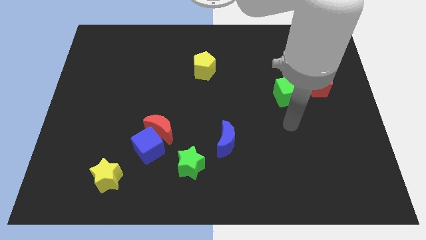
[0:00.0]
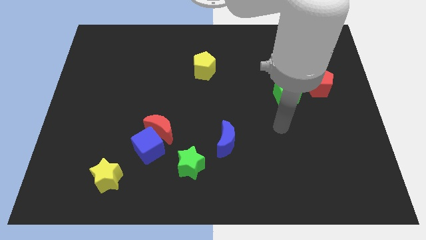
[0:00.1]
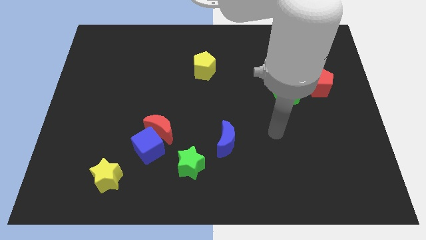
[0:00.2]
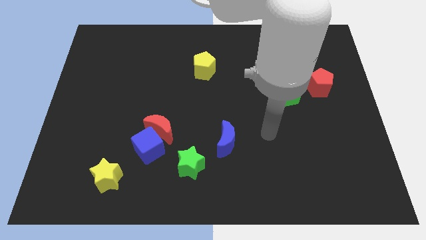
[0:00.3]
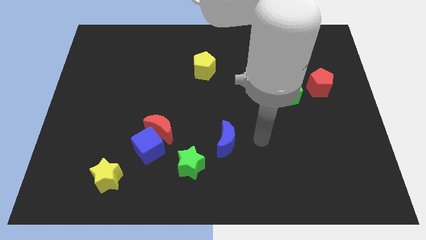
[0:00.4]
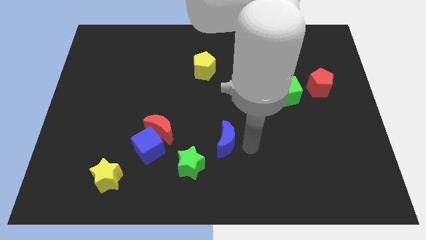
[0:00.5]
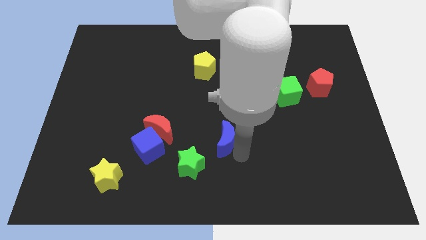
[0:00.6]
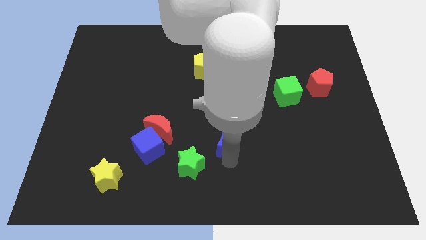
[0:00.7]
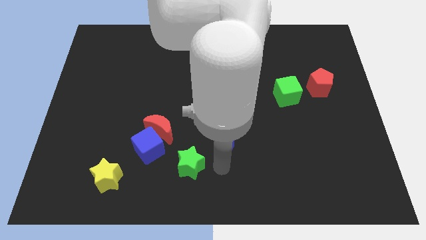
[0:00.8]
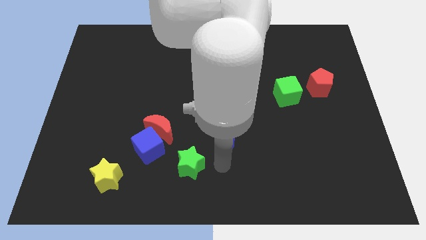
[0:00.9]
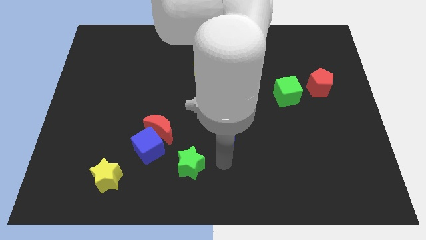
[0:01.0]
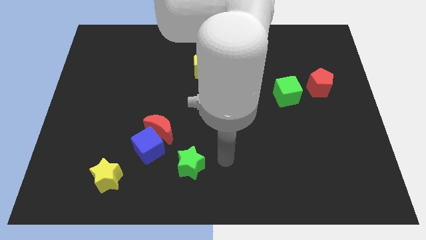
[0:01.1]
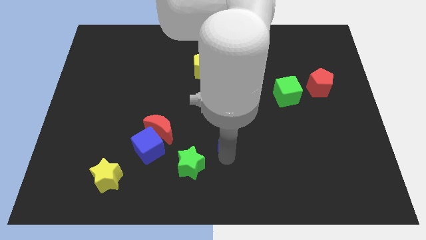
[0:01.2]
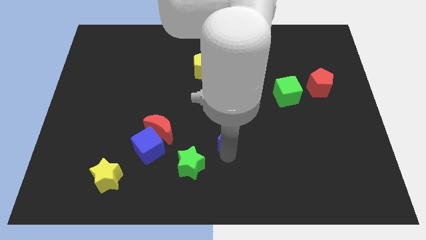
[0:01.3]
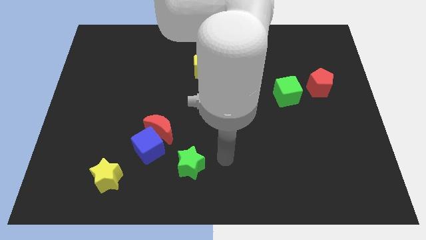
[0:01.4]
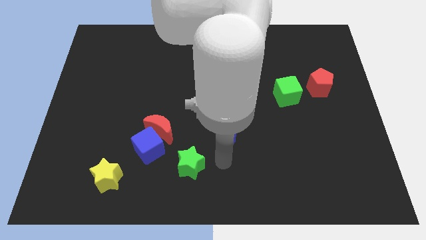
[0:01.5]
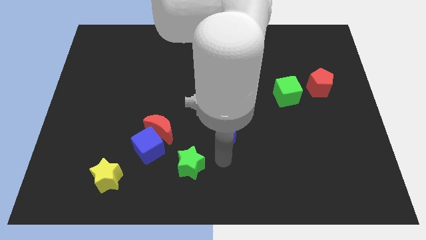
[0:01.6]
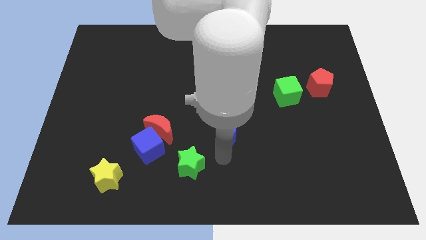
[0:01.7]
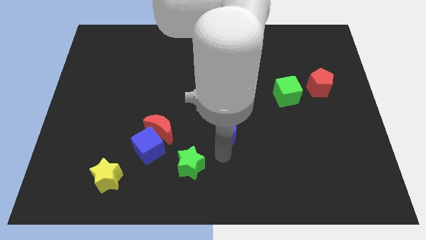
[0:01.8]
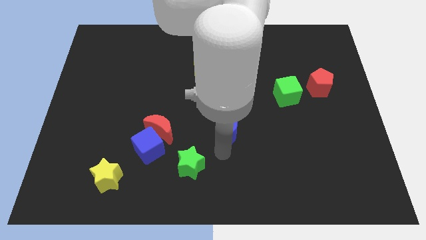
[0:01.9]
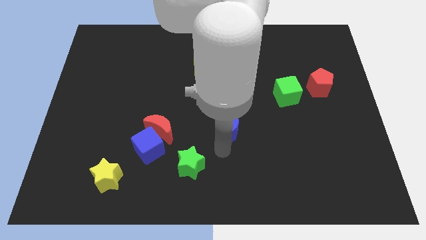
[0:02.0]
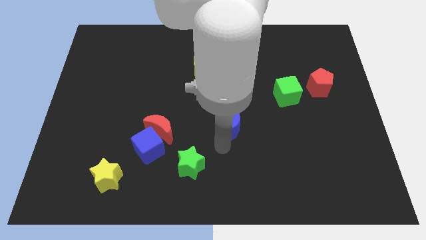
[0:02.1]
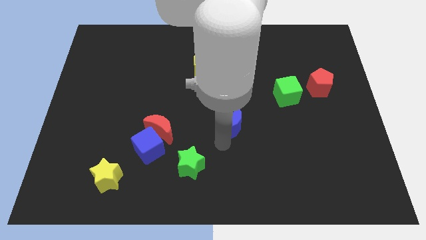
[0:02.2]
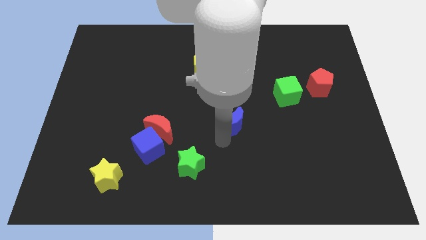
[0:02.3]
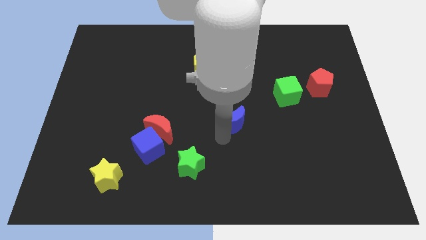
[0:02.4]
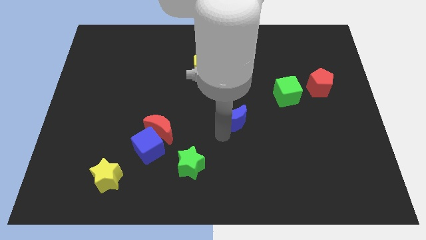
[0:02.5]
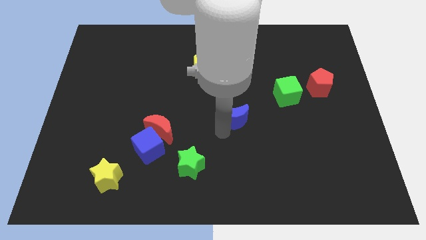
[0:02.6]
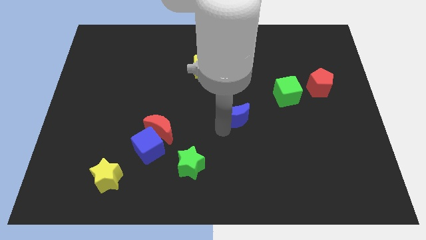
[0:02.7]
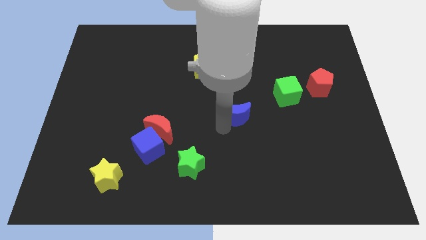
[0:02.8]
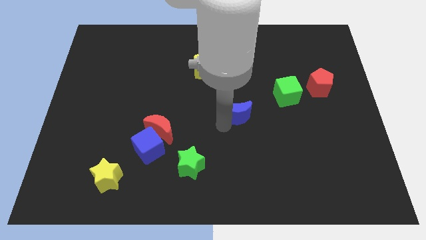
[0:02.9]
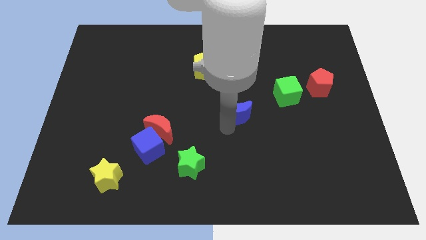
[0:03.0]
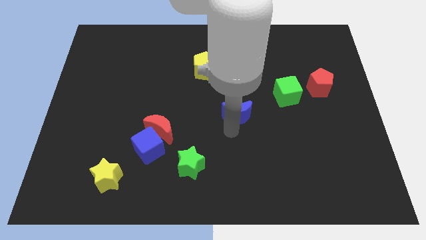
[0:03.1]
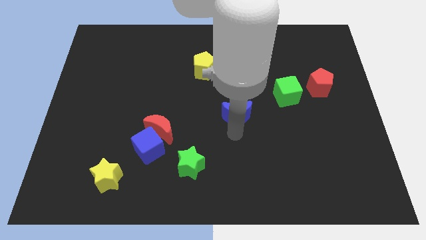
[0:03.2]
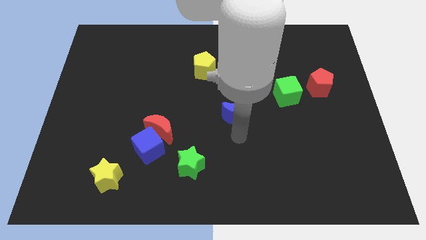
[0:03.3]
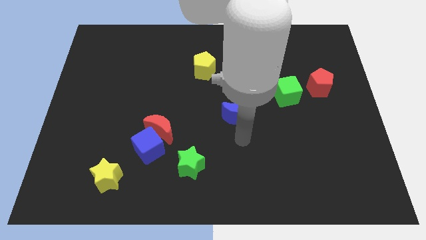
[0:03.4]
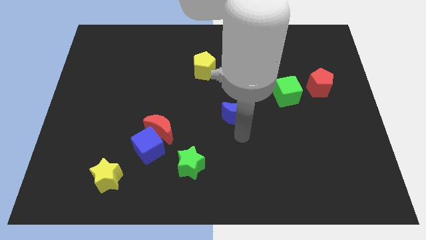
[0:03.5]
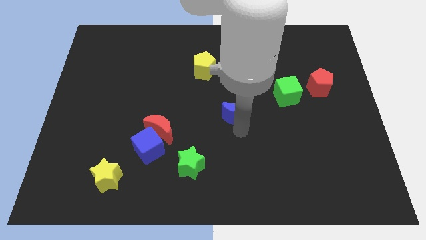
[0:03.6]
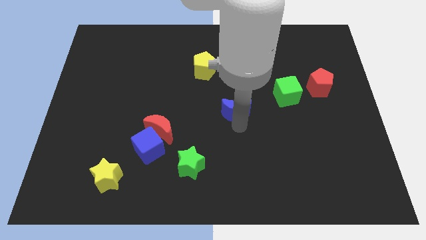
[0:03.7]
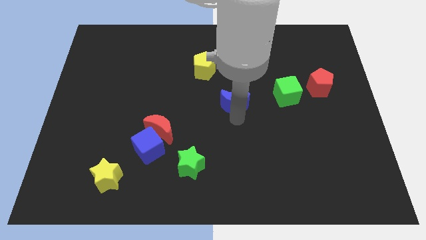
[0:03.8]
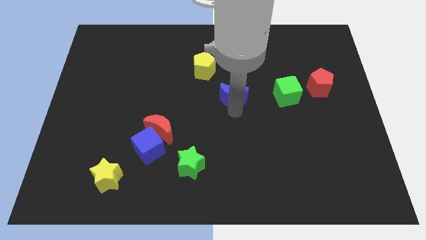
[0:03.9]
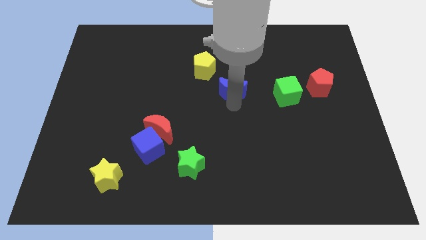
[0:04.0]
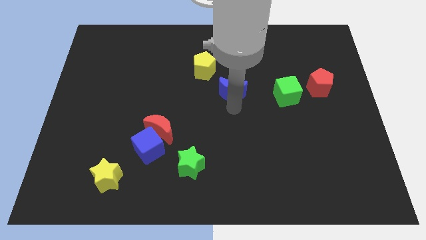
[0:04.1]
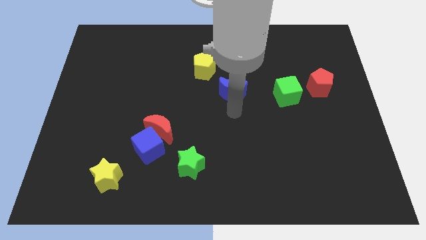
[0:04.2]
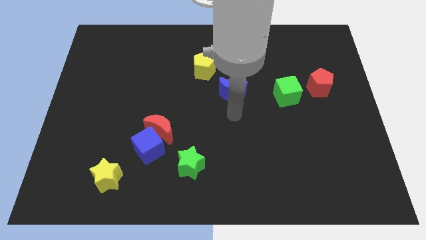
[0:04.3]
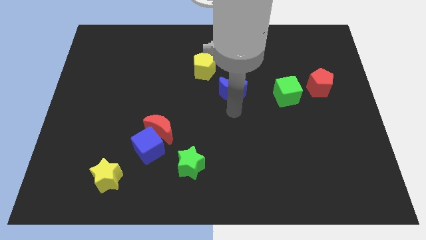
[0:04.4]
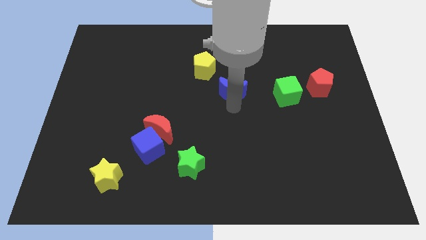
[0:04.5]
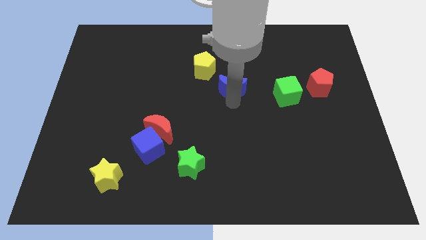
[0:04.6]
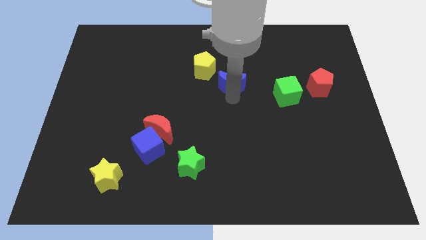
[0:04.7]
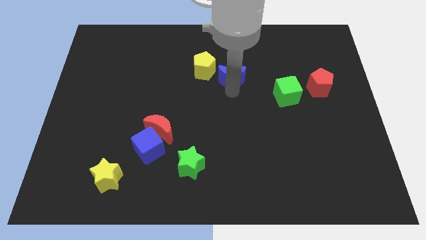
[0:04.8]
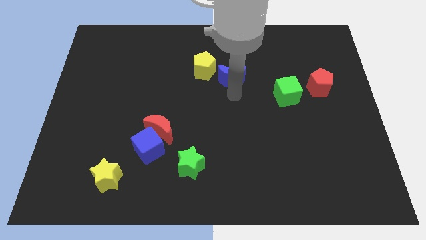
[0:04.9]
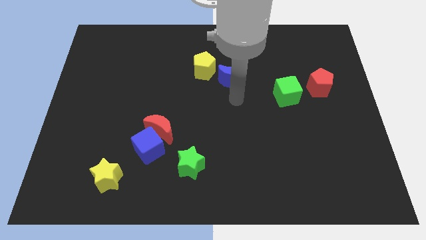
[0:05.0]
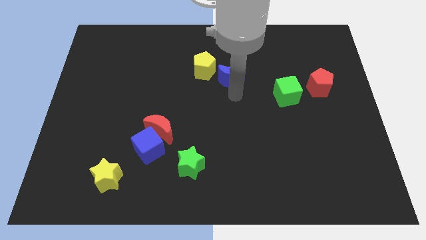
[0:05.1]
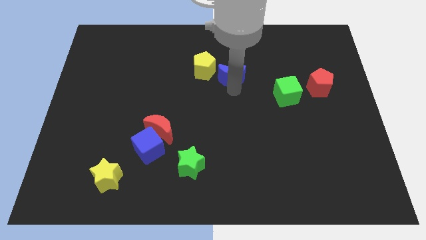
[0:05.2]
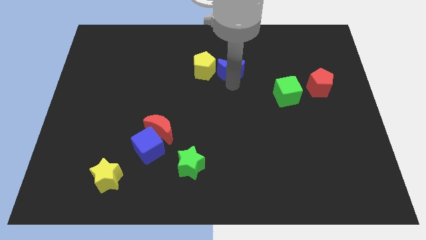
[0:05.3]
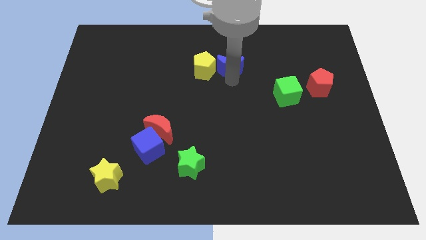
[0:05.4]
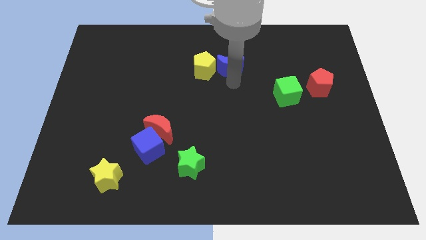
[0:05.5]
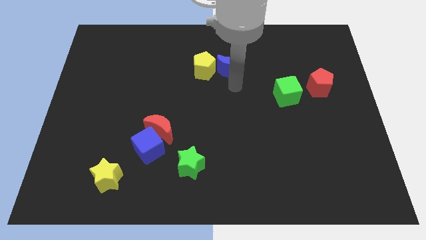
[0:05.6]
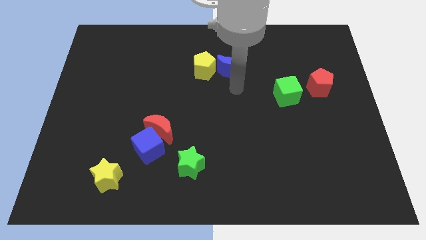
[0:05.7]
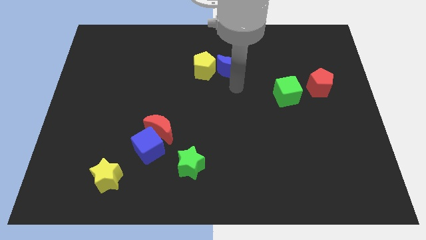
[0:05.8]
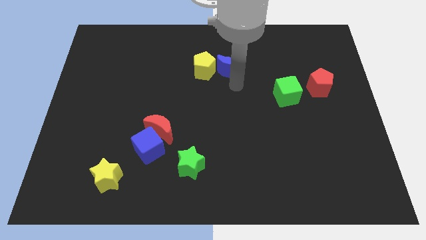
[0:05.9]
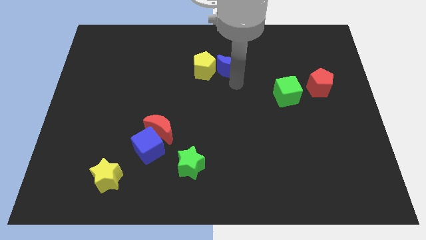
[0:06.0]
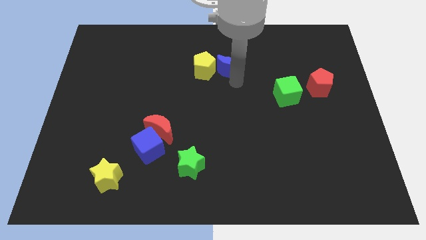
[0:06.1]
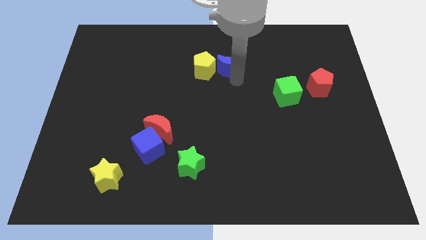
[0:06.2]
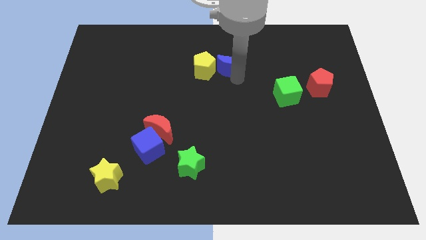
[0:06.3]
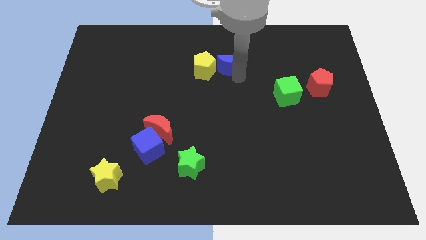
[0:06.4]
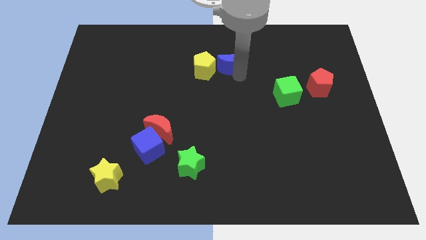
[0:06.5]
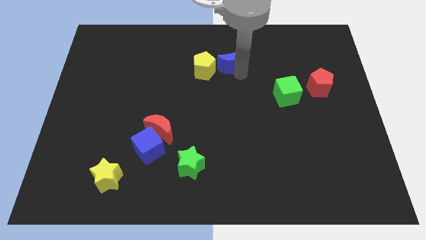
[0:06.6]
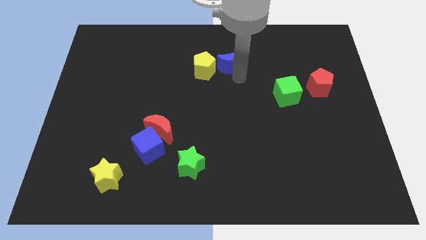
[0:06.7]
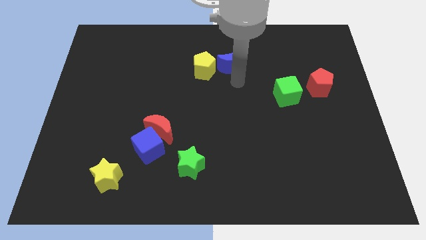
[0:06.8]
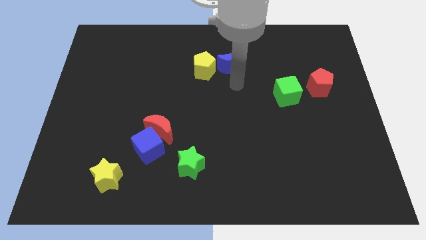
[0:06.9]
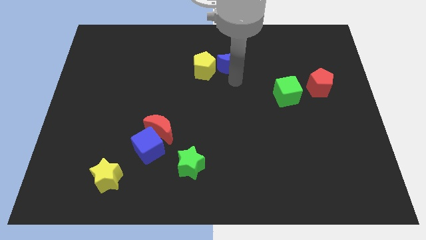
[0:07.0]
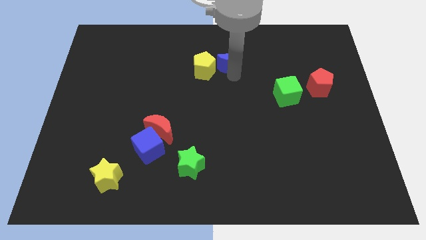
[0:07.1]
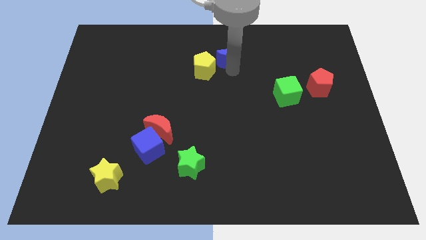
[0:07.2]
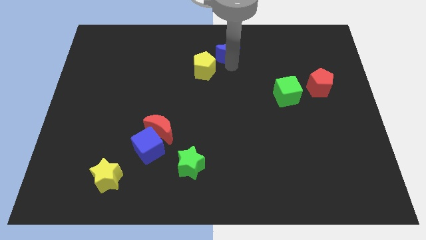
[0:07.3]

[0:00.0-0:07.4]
put the blue moon to the top side
